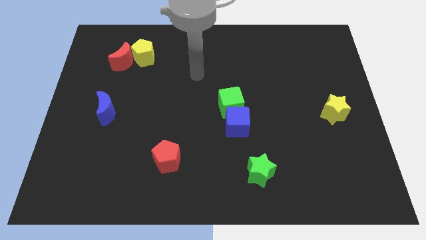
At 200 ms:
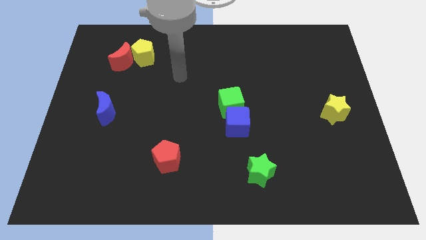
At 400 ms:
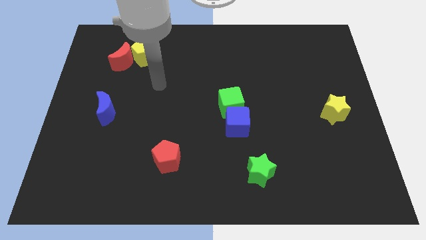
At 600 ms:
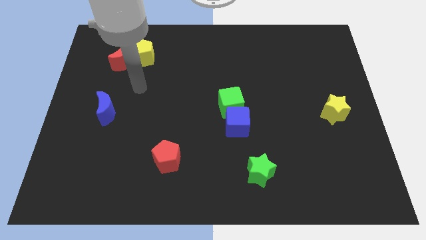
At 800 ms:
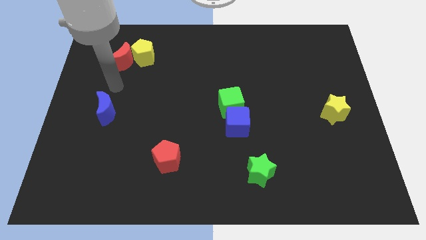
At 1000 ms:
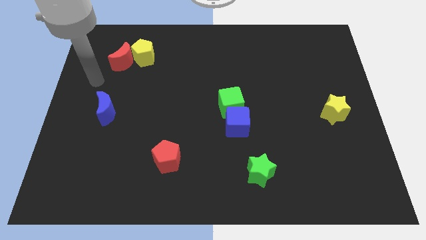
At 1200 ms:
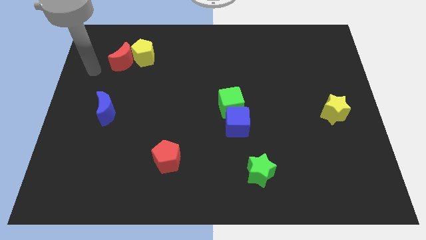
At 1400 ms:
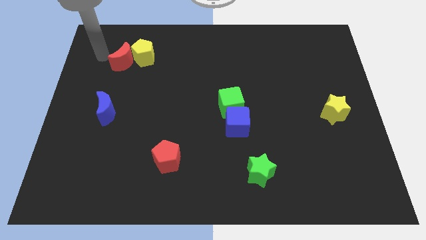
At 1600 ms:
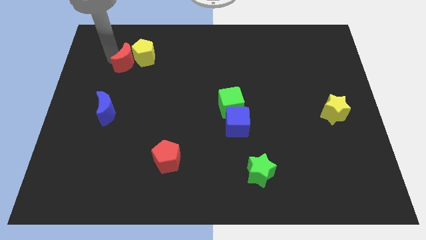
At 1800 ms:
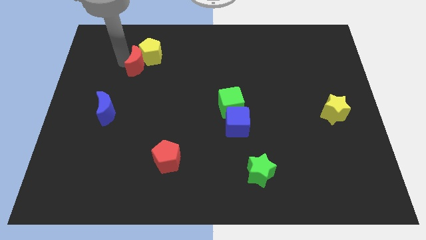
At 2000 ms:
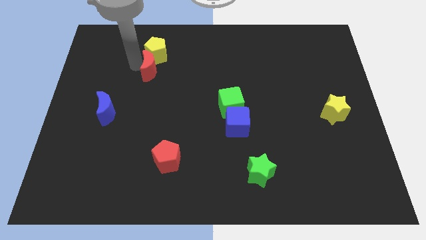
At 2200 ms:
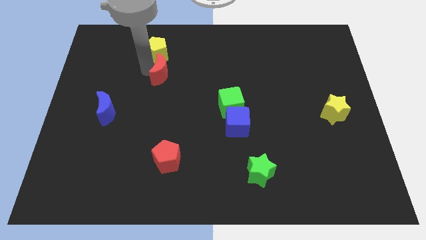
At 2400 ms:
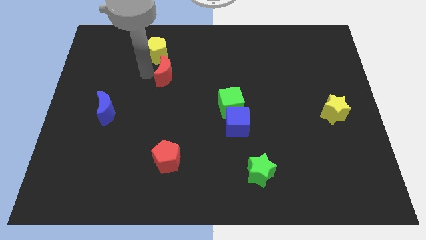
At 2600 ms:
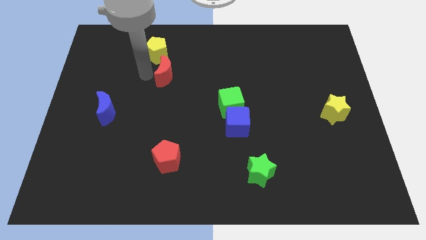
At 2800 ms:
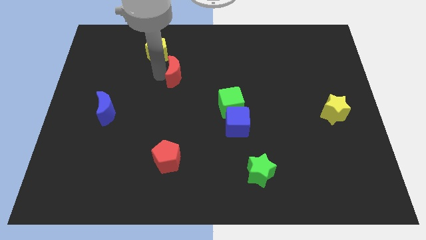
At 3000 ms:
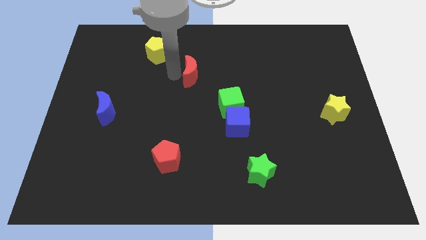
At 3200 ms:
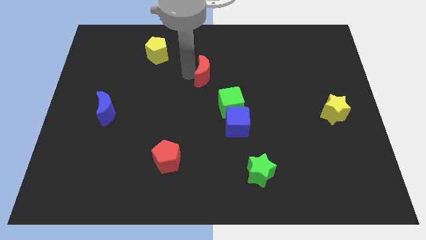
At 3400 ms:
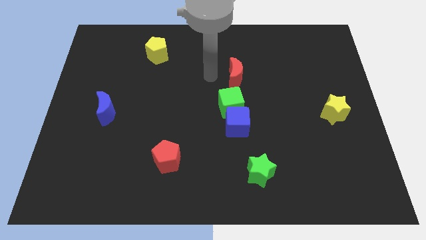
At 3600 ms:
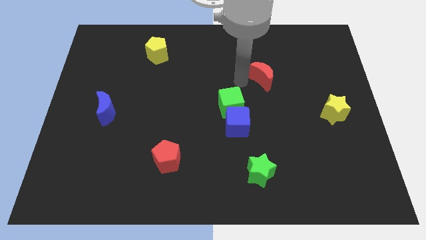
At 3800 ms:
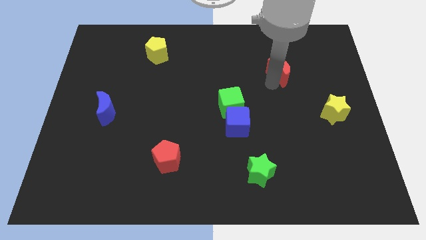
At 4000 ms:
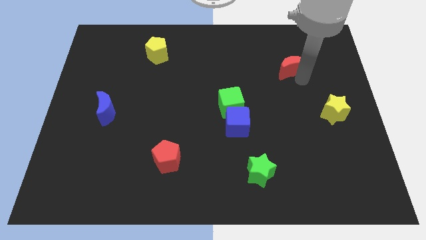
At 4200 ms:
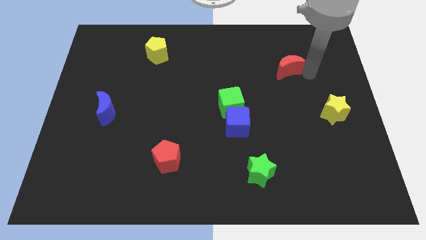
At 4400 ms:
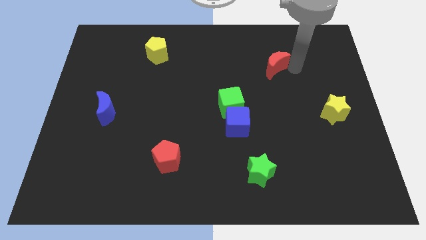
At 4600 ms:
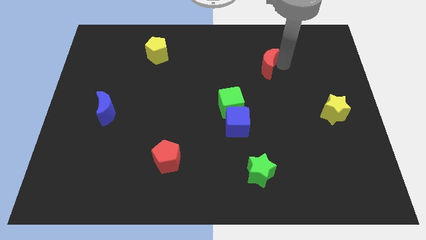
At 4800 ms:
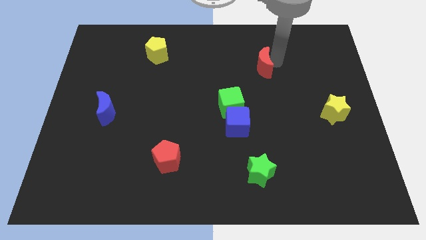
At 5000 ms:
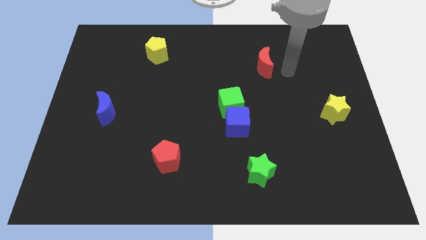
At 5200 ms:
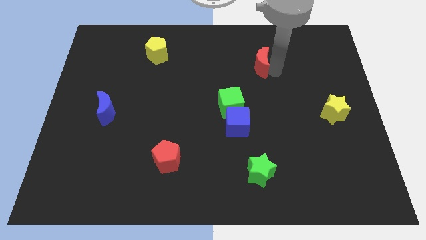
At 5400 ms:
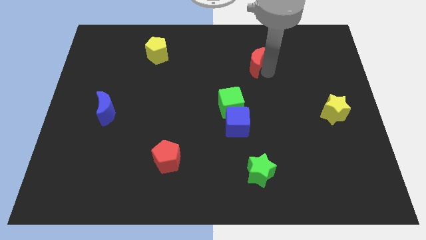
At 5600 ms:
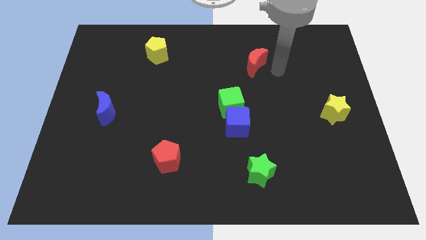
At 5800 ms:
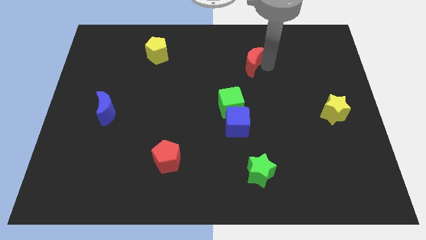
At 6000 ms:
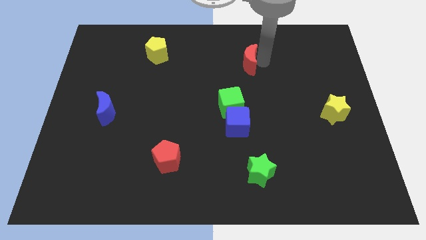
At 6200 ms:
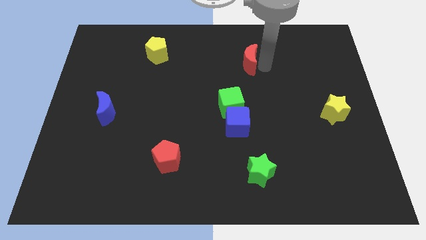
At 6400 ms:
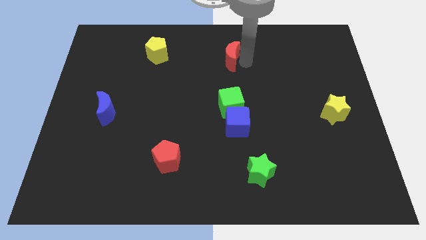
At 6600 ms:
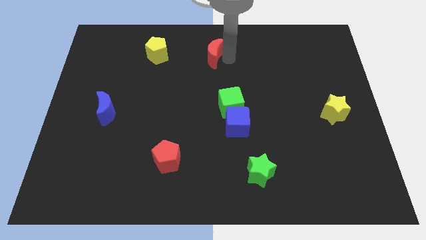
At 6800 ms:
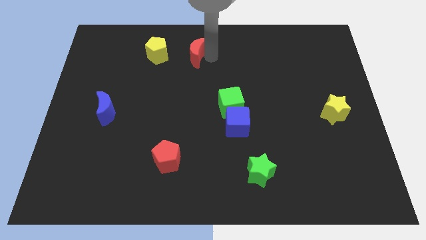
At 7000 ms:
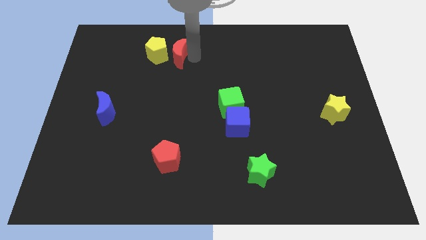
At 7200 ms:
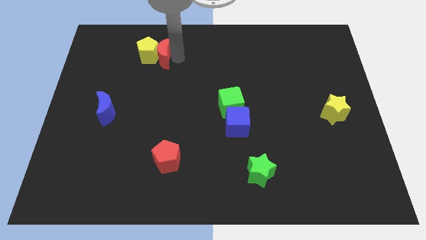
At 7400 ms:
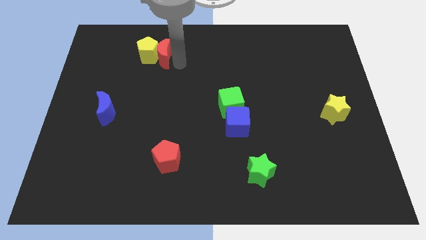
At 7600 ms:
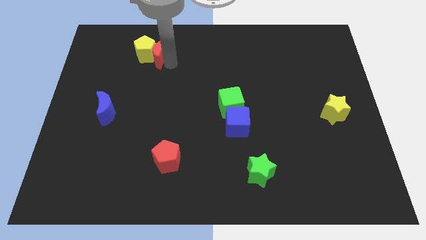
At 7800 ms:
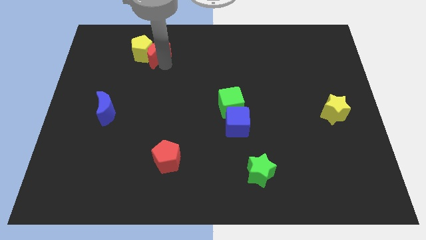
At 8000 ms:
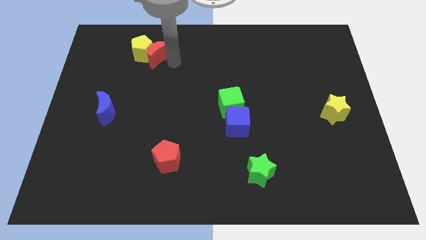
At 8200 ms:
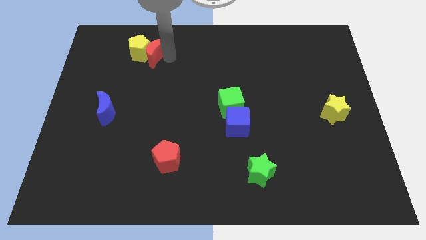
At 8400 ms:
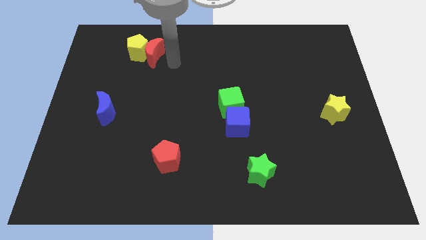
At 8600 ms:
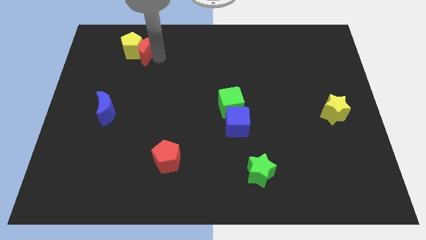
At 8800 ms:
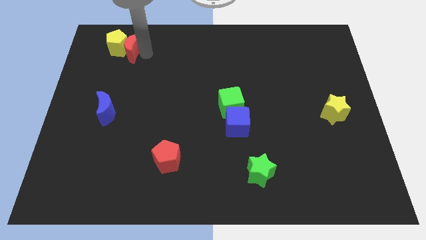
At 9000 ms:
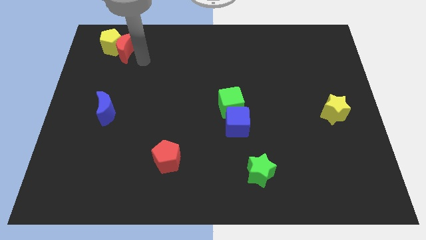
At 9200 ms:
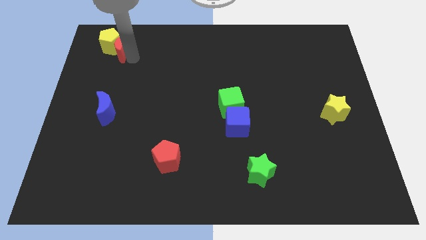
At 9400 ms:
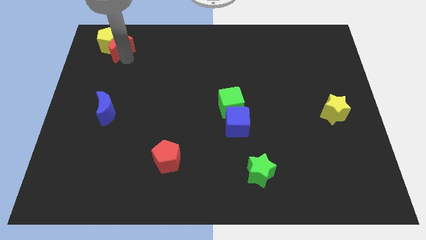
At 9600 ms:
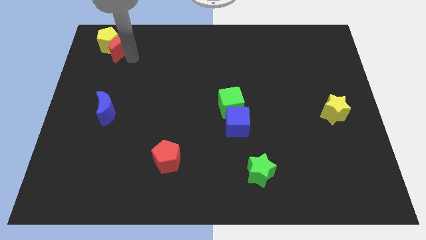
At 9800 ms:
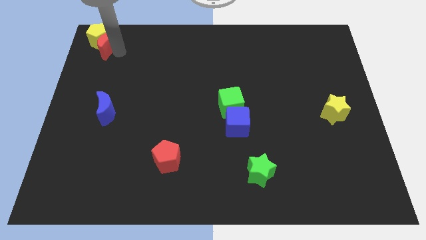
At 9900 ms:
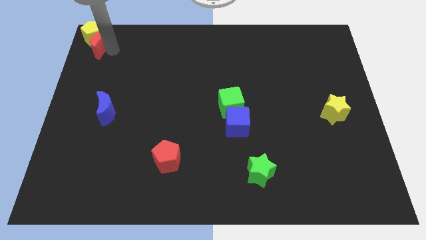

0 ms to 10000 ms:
push the red moon to the top left corner

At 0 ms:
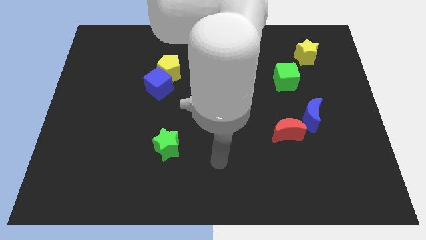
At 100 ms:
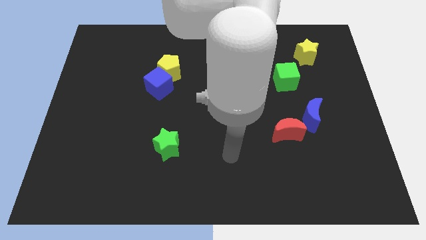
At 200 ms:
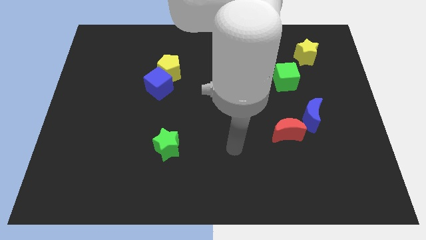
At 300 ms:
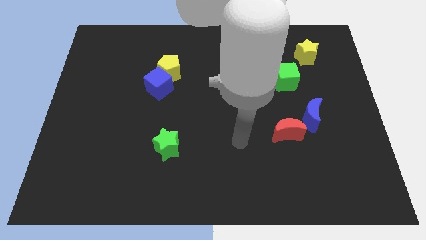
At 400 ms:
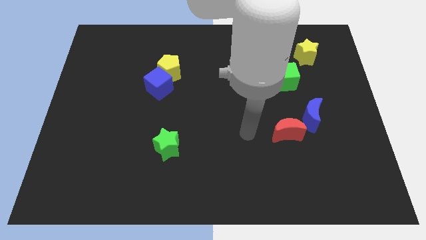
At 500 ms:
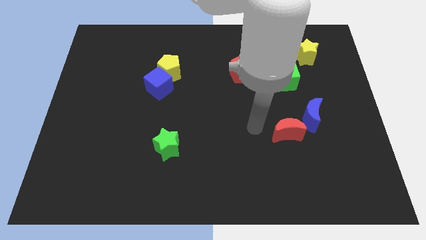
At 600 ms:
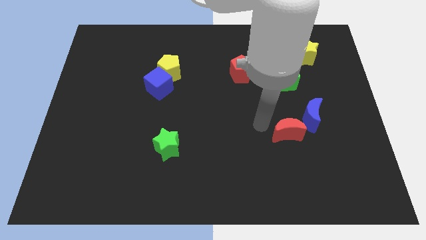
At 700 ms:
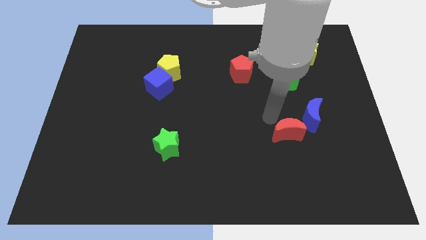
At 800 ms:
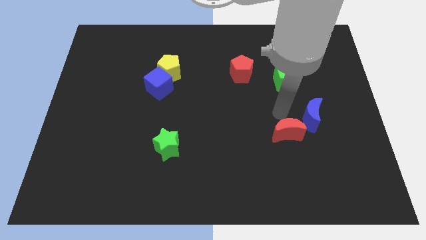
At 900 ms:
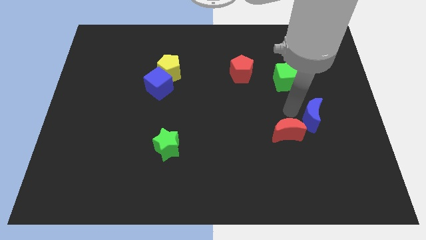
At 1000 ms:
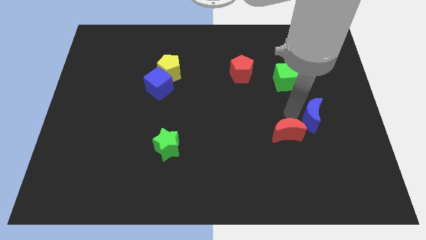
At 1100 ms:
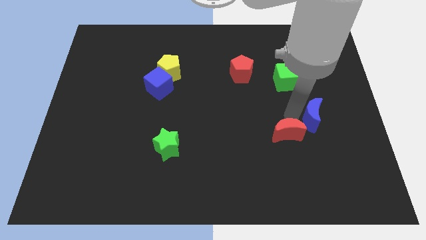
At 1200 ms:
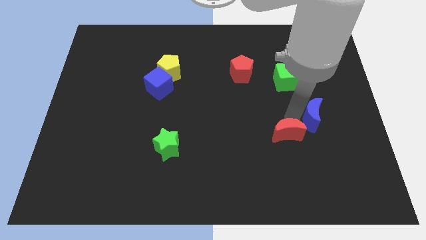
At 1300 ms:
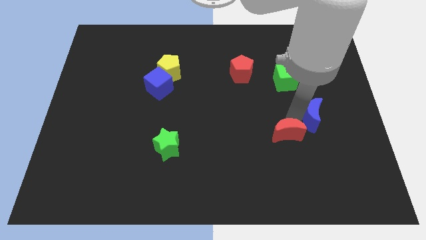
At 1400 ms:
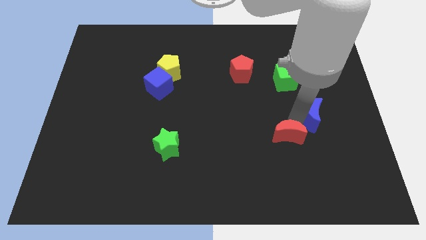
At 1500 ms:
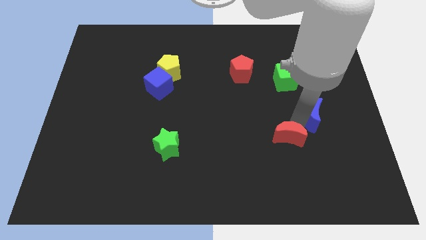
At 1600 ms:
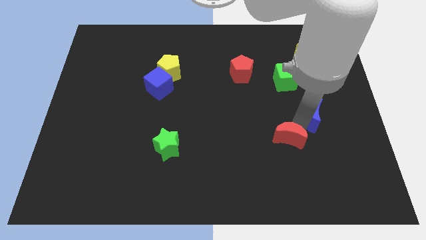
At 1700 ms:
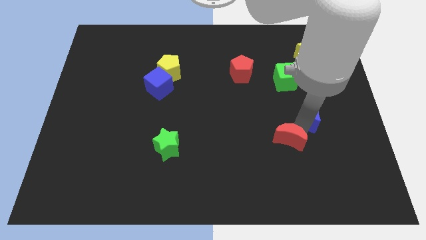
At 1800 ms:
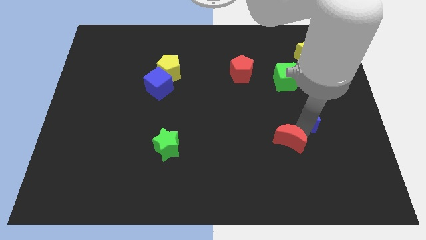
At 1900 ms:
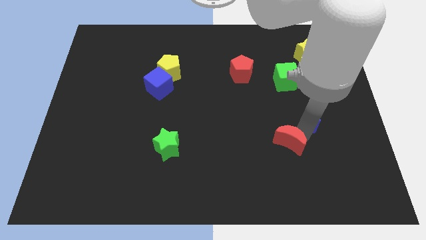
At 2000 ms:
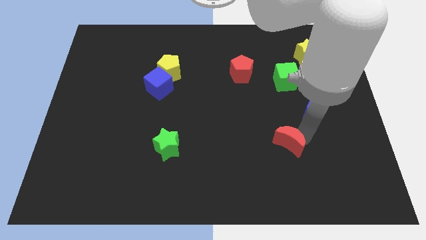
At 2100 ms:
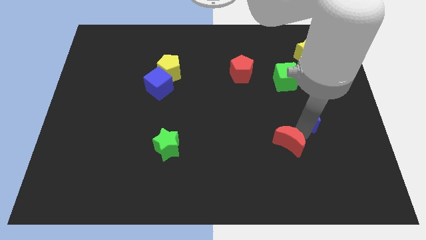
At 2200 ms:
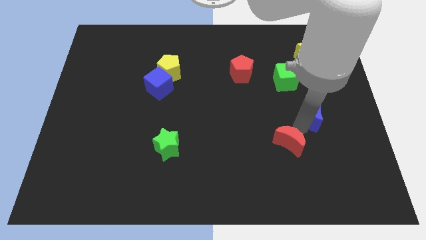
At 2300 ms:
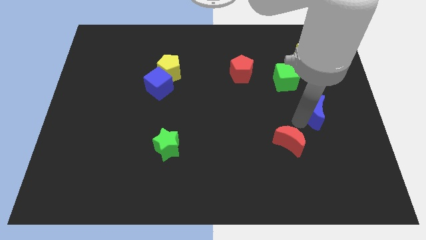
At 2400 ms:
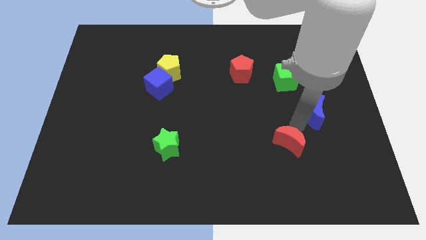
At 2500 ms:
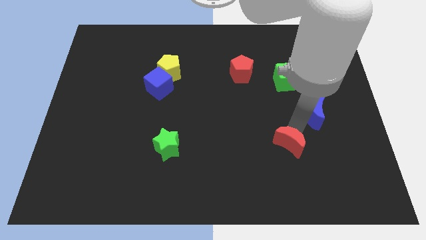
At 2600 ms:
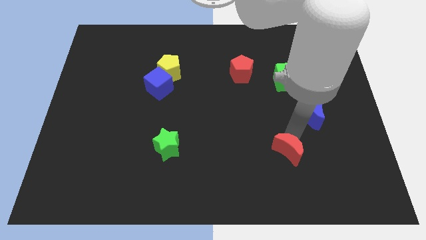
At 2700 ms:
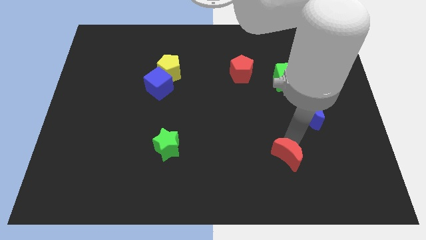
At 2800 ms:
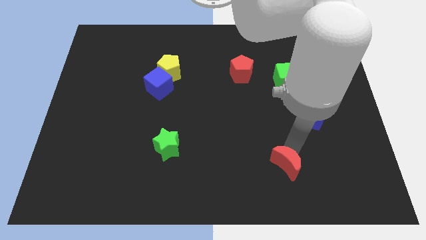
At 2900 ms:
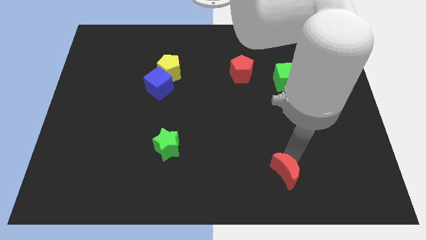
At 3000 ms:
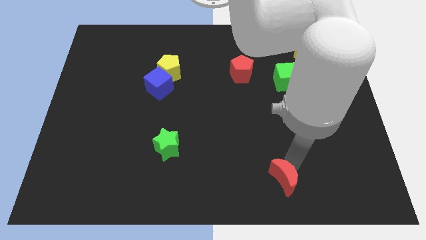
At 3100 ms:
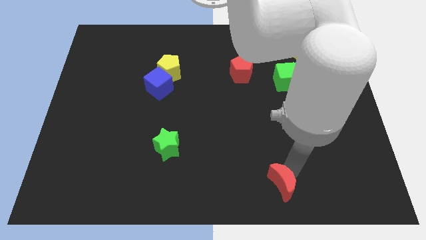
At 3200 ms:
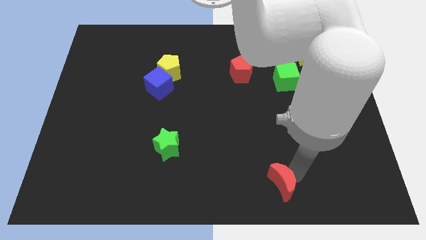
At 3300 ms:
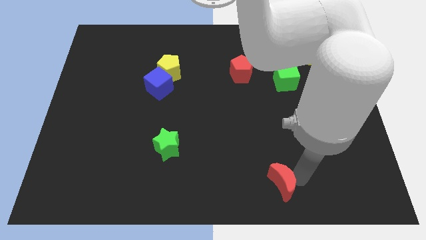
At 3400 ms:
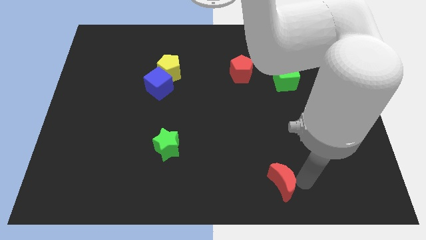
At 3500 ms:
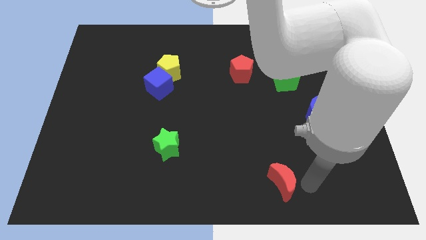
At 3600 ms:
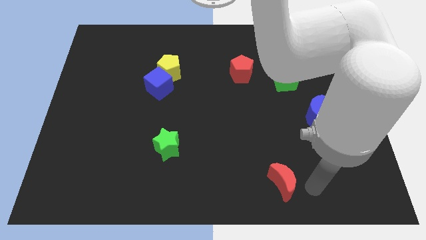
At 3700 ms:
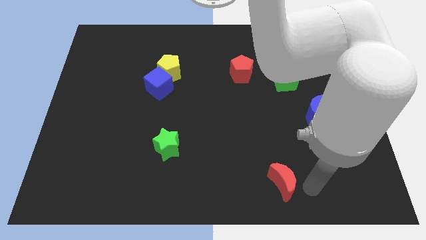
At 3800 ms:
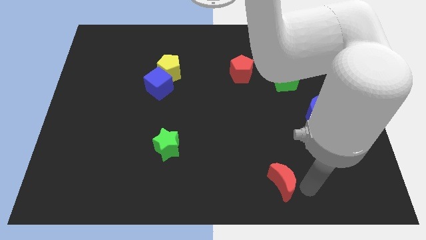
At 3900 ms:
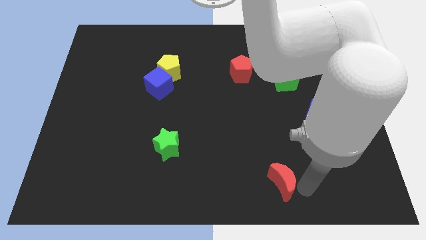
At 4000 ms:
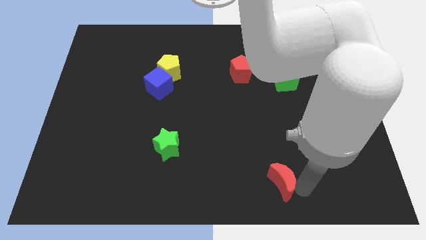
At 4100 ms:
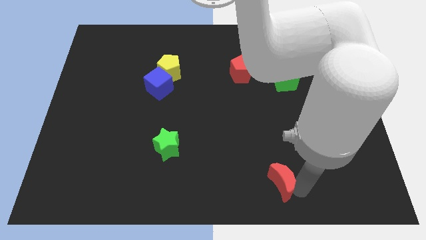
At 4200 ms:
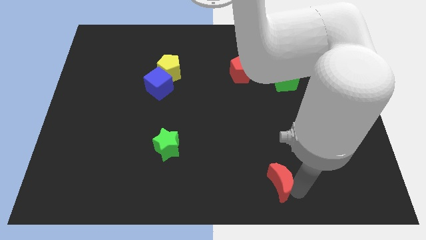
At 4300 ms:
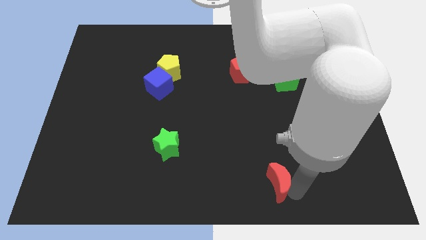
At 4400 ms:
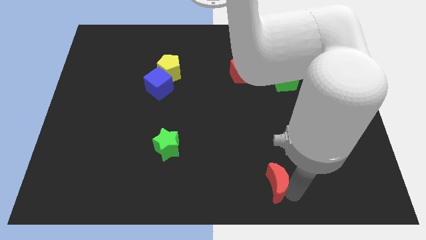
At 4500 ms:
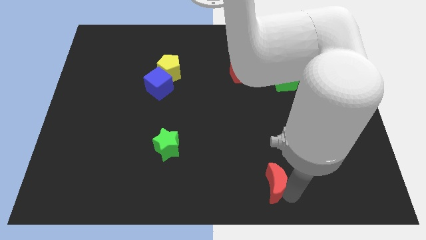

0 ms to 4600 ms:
push the red moon to the bottom
